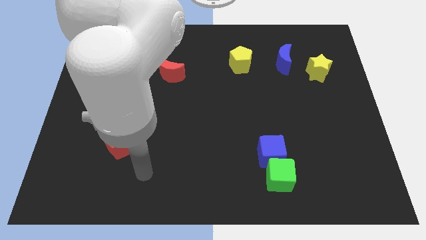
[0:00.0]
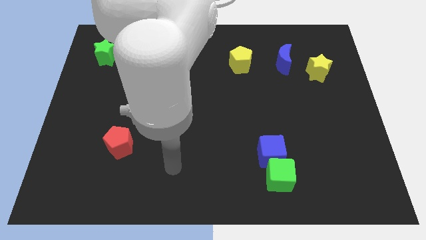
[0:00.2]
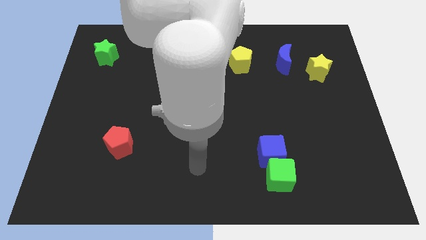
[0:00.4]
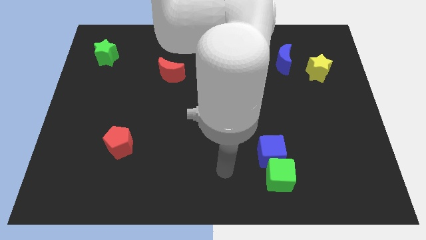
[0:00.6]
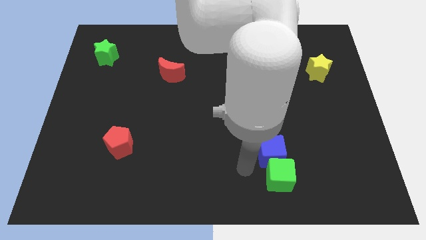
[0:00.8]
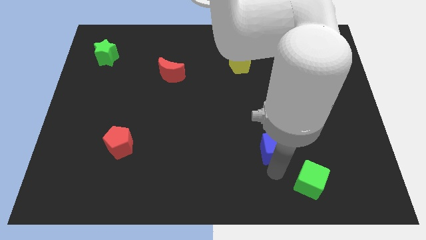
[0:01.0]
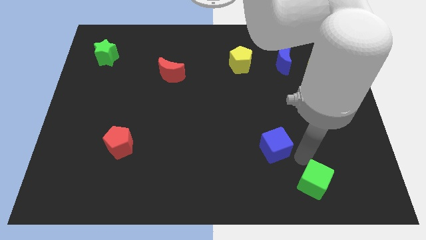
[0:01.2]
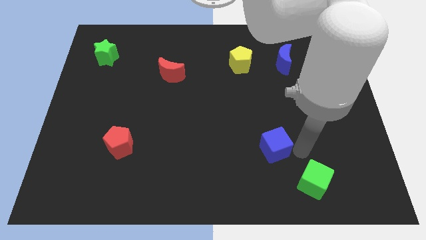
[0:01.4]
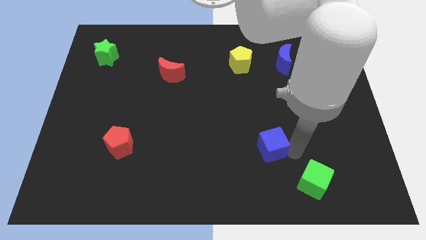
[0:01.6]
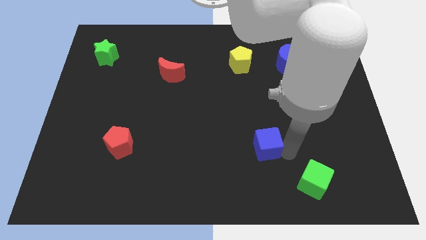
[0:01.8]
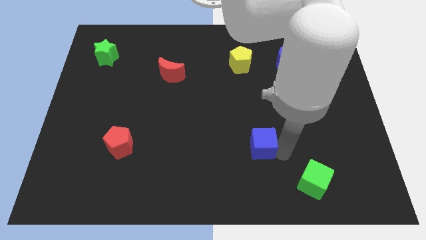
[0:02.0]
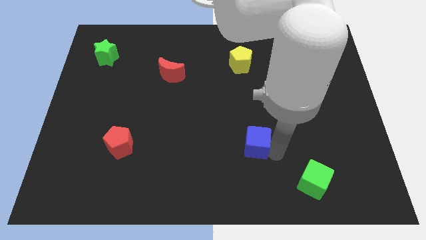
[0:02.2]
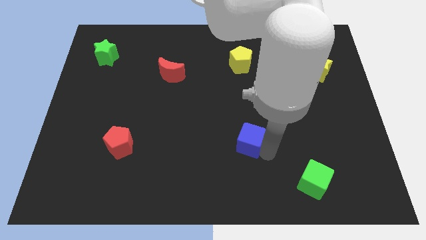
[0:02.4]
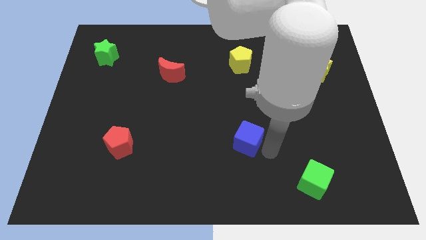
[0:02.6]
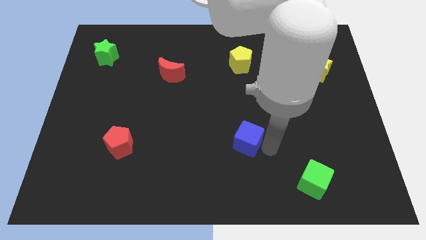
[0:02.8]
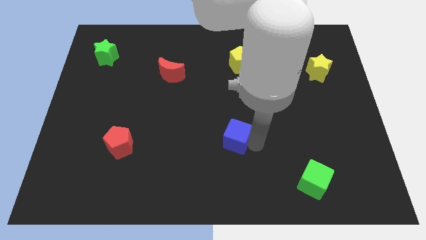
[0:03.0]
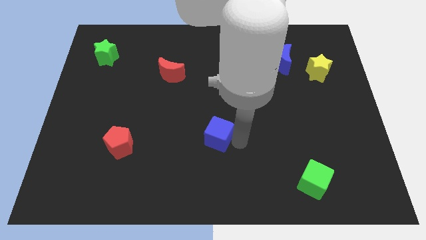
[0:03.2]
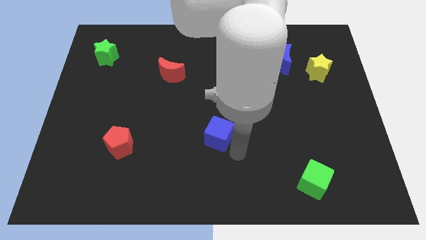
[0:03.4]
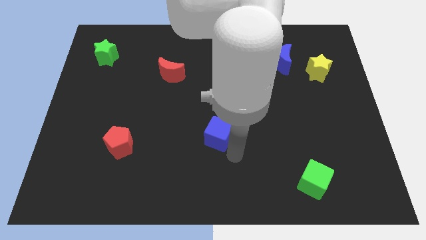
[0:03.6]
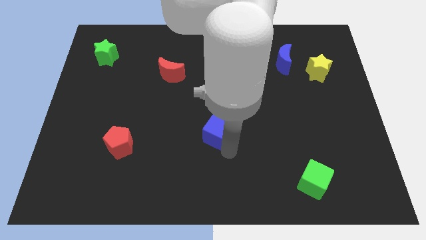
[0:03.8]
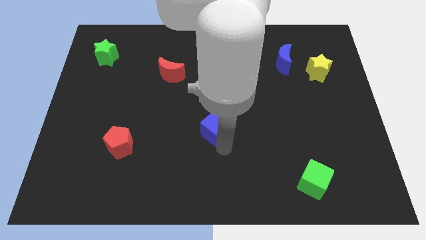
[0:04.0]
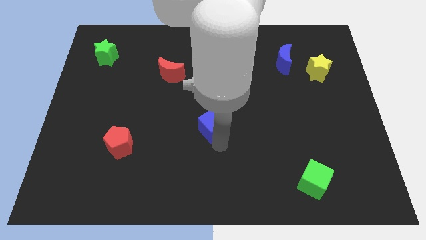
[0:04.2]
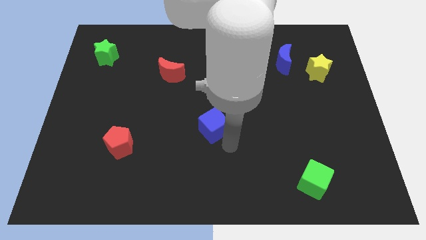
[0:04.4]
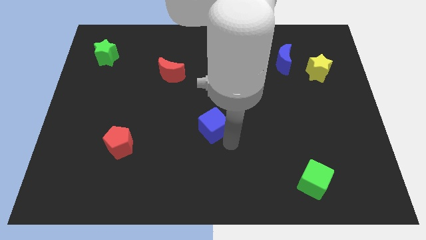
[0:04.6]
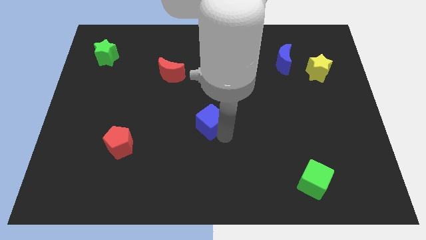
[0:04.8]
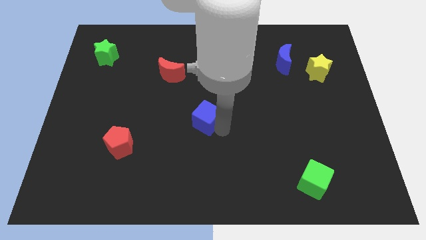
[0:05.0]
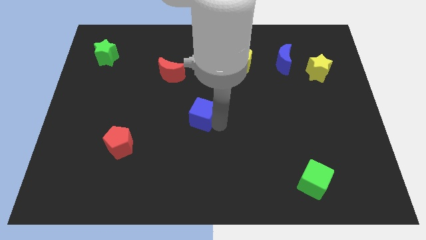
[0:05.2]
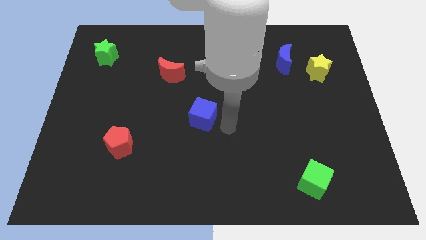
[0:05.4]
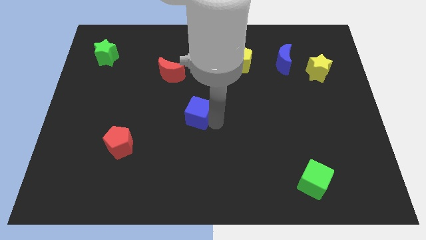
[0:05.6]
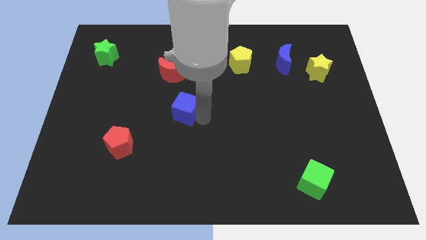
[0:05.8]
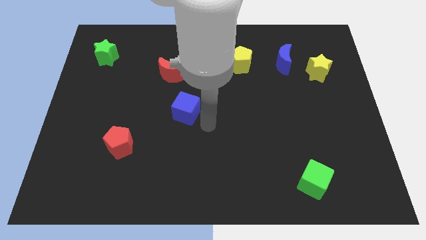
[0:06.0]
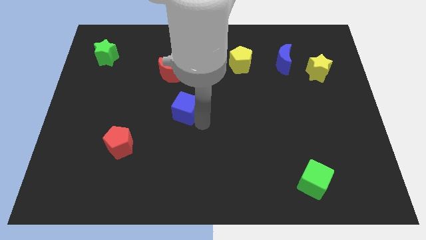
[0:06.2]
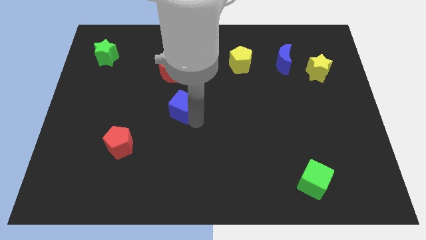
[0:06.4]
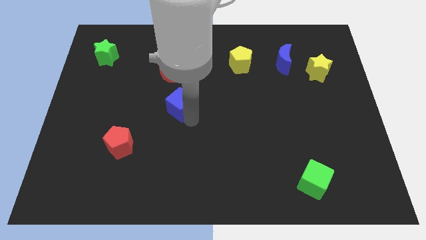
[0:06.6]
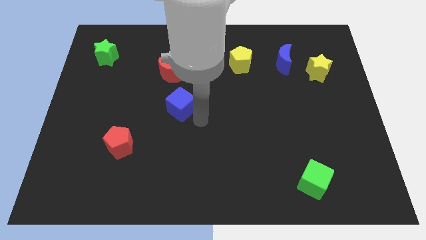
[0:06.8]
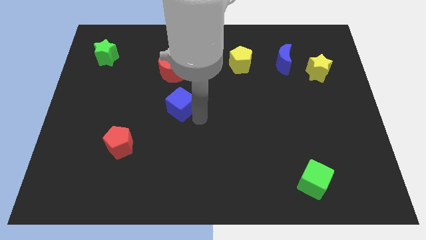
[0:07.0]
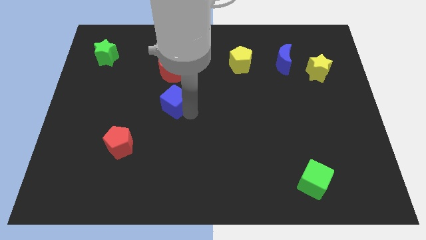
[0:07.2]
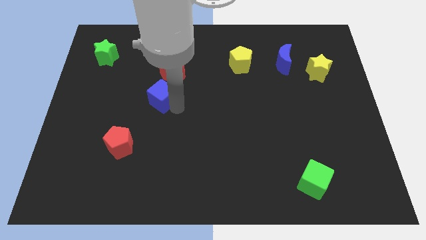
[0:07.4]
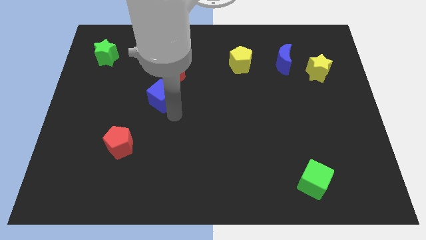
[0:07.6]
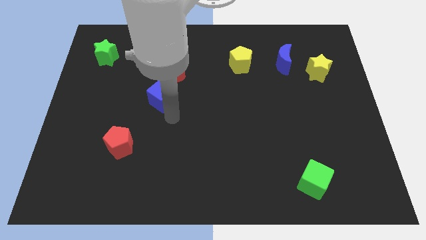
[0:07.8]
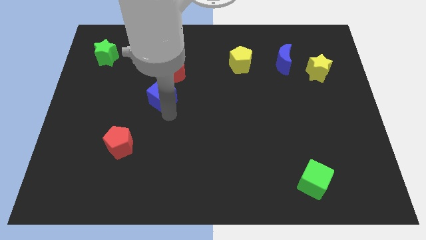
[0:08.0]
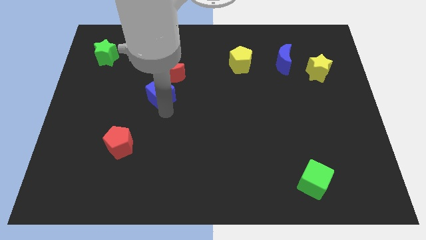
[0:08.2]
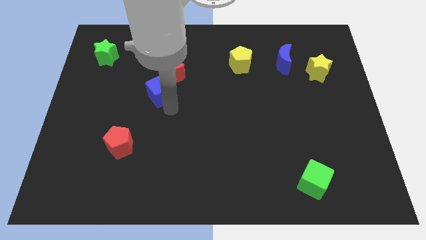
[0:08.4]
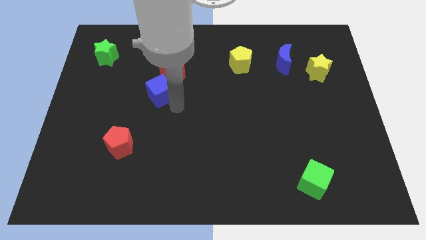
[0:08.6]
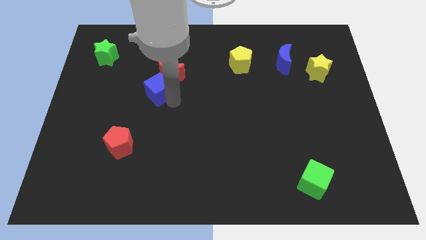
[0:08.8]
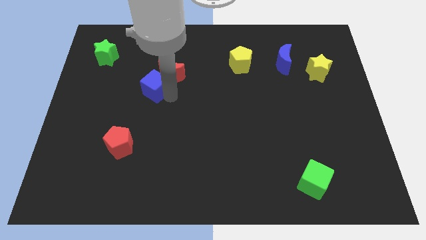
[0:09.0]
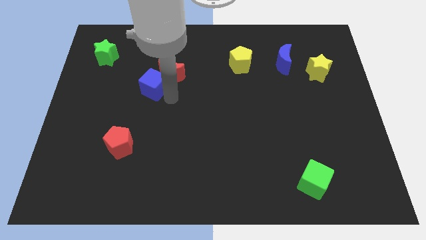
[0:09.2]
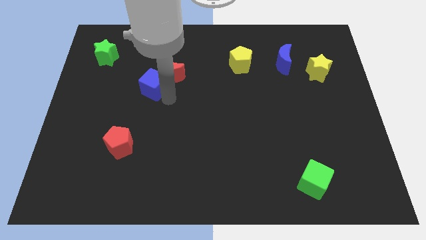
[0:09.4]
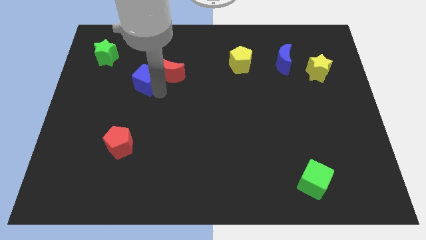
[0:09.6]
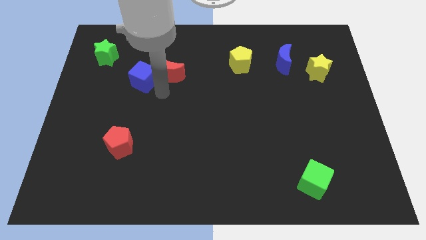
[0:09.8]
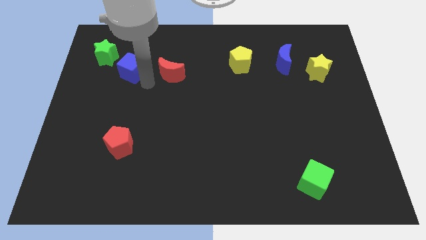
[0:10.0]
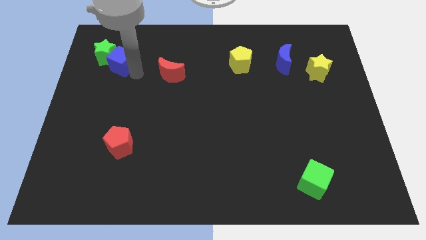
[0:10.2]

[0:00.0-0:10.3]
push the blue cube close to the green star

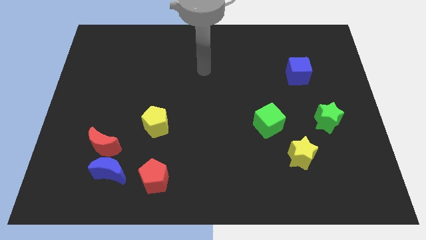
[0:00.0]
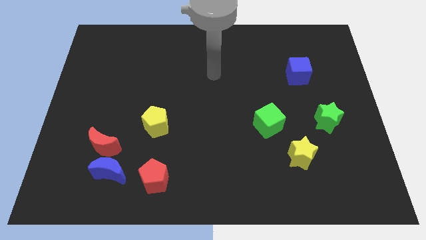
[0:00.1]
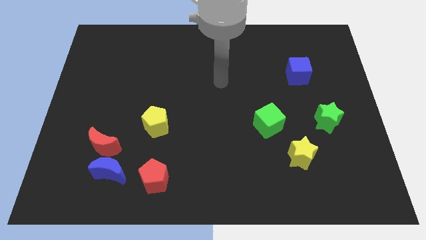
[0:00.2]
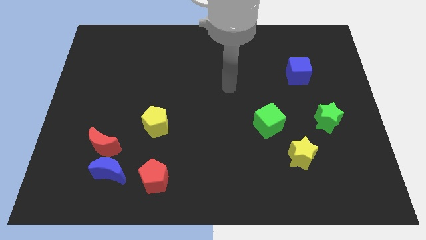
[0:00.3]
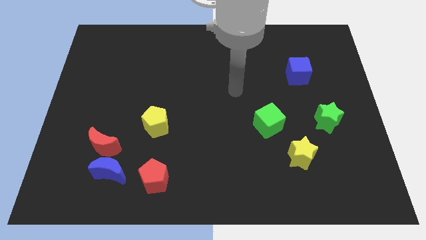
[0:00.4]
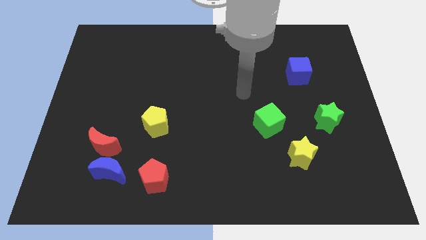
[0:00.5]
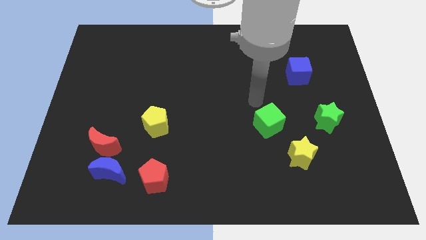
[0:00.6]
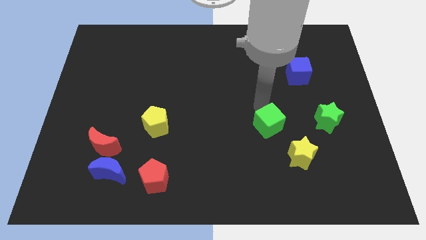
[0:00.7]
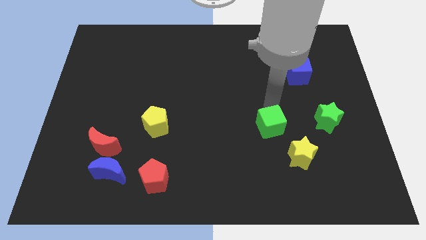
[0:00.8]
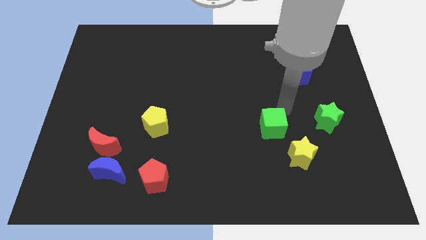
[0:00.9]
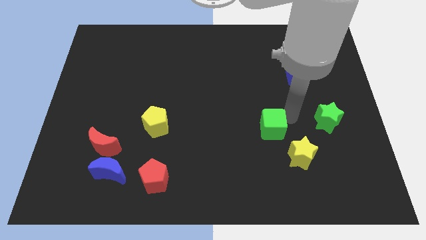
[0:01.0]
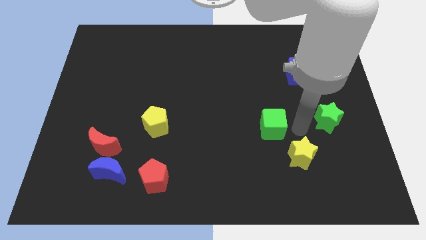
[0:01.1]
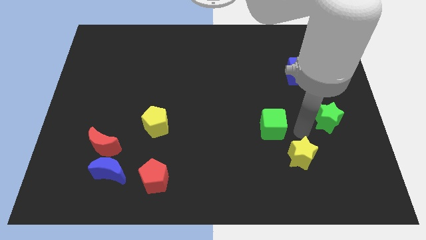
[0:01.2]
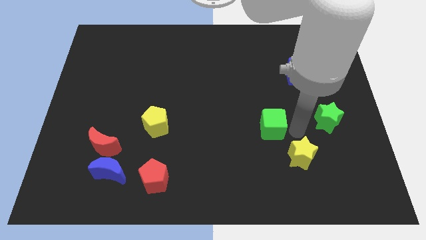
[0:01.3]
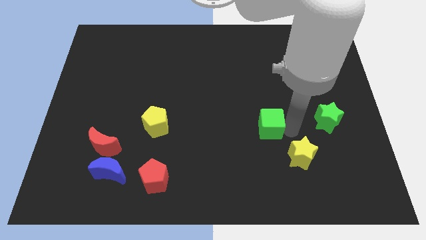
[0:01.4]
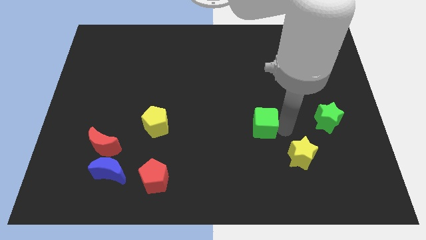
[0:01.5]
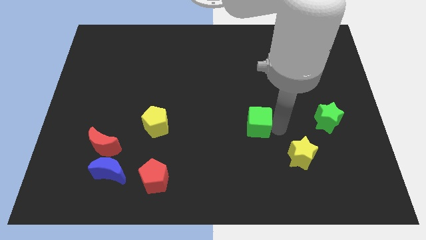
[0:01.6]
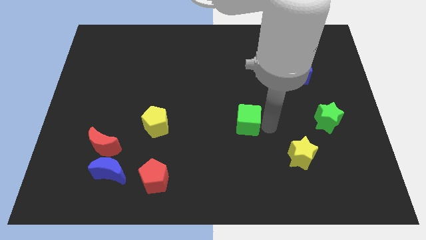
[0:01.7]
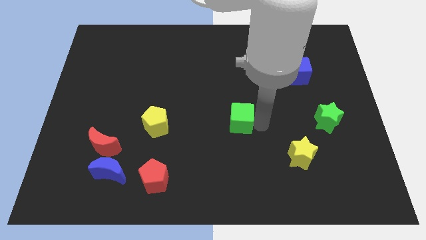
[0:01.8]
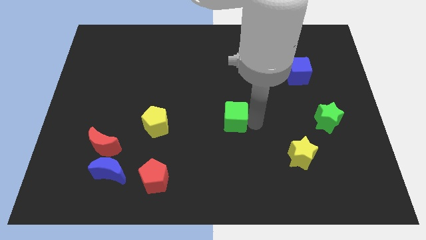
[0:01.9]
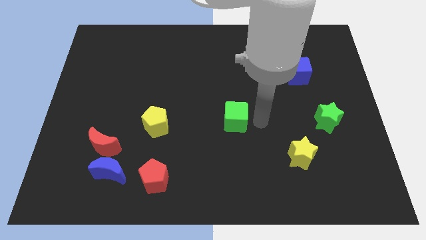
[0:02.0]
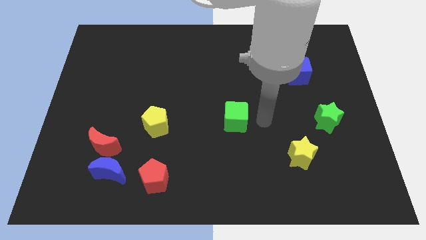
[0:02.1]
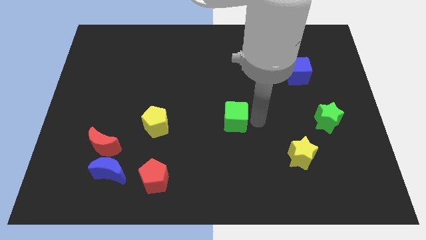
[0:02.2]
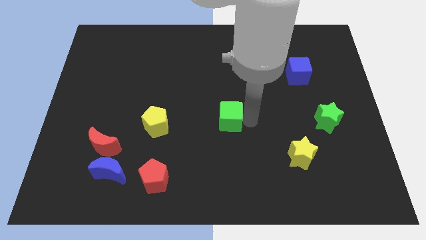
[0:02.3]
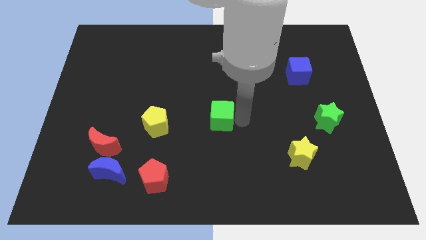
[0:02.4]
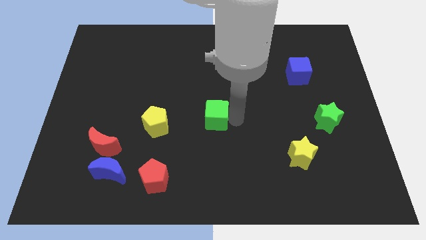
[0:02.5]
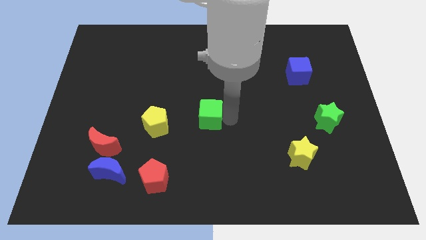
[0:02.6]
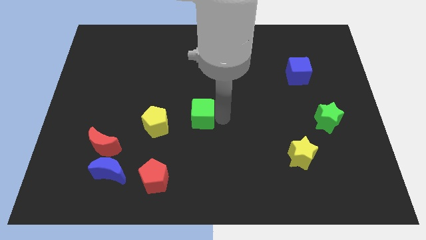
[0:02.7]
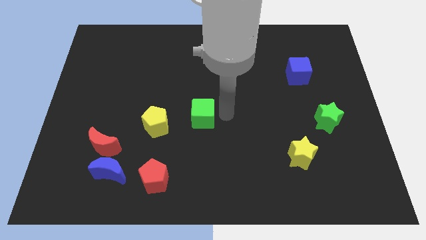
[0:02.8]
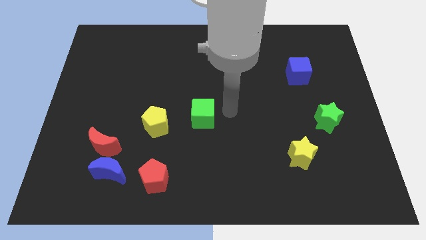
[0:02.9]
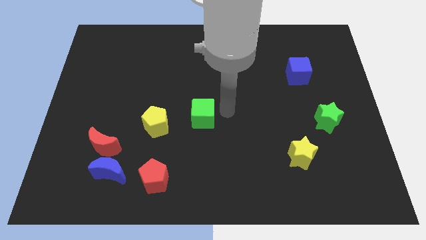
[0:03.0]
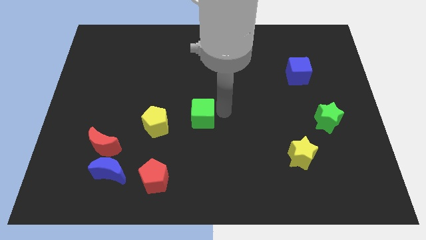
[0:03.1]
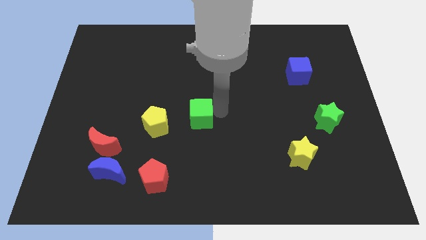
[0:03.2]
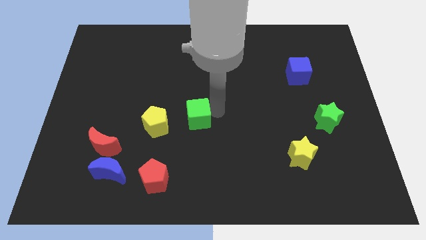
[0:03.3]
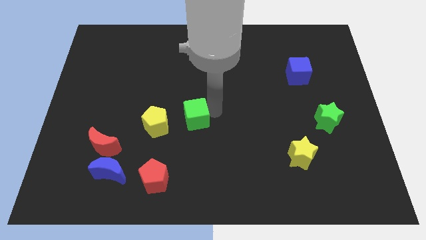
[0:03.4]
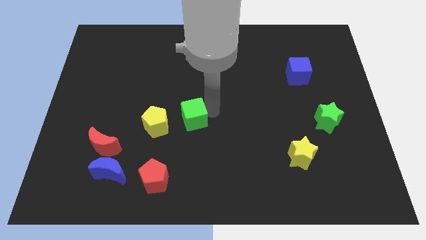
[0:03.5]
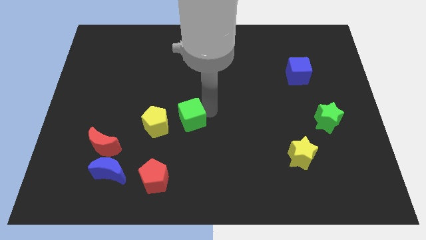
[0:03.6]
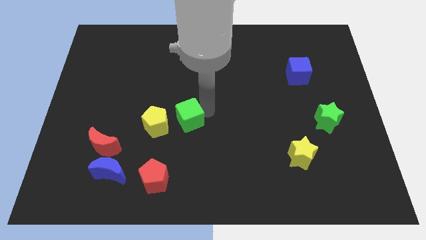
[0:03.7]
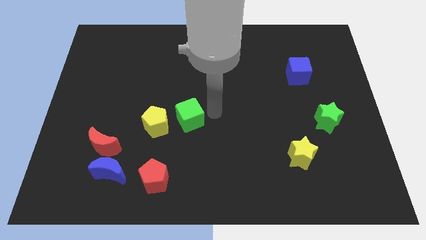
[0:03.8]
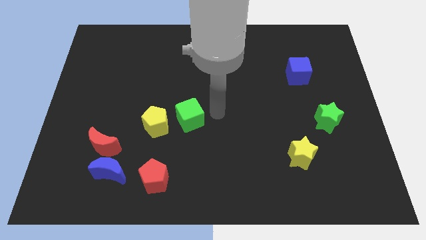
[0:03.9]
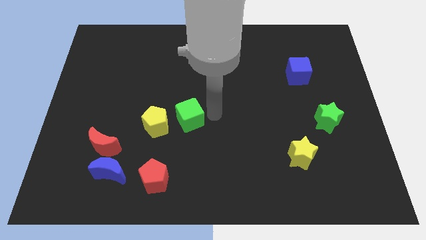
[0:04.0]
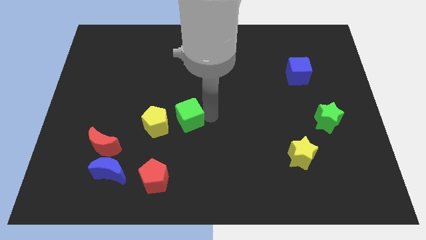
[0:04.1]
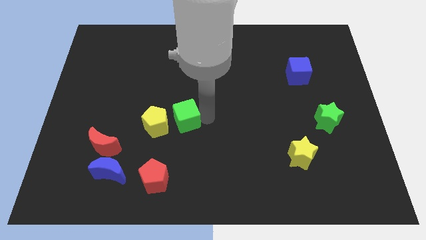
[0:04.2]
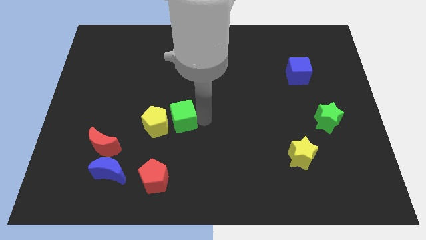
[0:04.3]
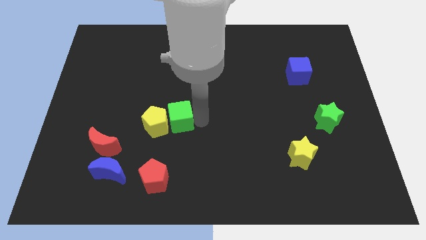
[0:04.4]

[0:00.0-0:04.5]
slide the green cube close to the yellow pentagon
